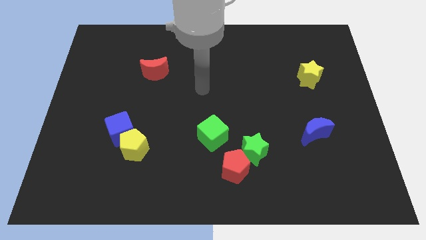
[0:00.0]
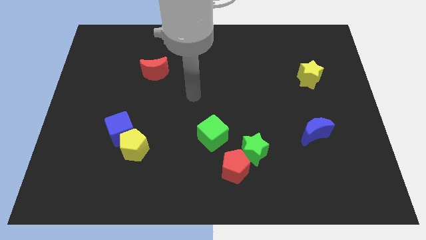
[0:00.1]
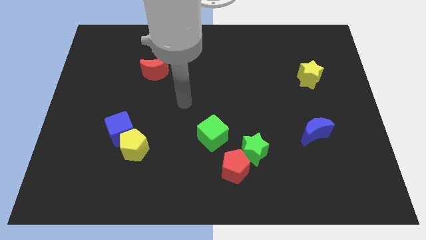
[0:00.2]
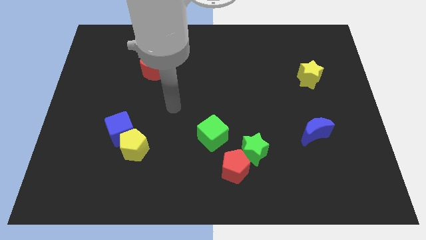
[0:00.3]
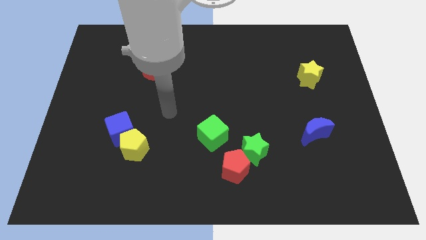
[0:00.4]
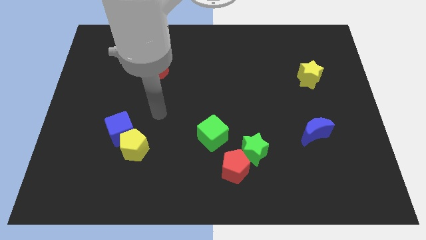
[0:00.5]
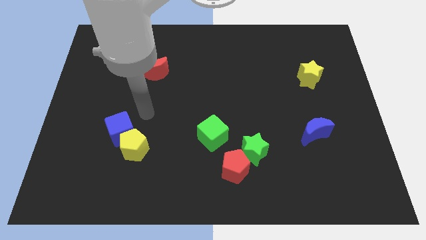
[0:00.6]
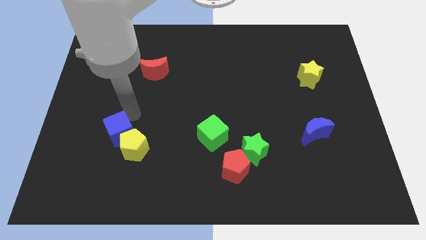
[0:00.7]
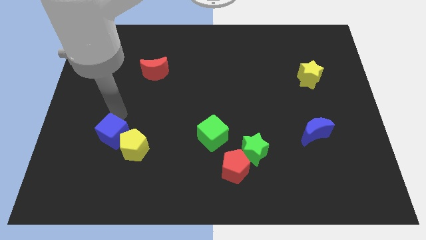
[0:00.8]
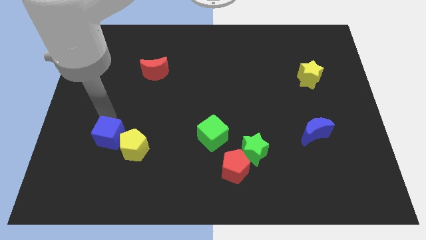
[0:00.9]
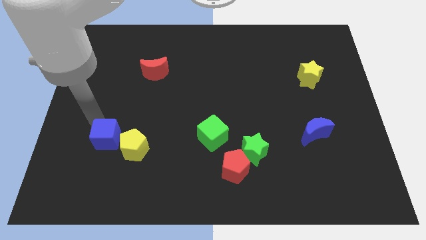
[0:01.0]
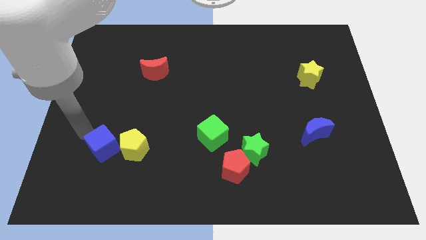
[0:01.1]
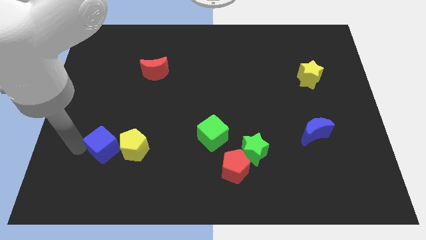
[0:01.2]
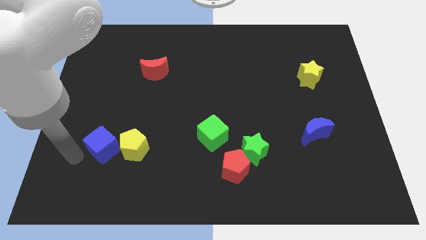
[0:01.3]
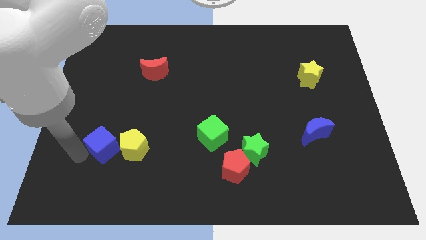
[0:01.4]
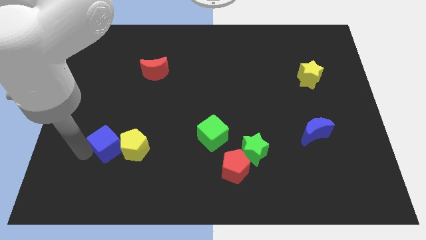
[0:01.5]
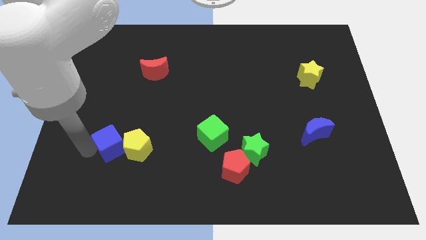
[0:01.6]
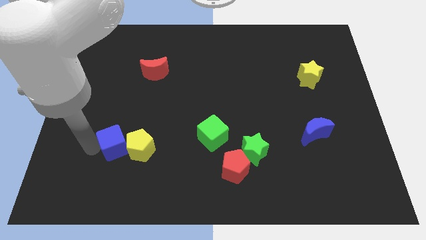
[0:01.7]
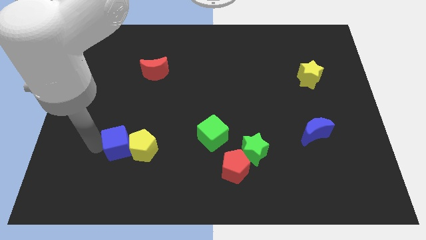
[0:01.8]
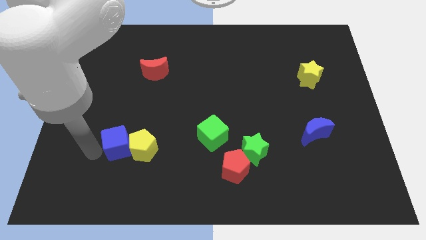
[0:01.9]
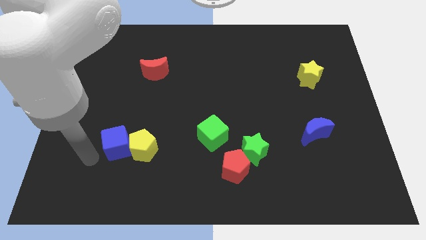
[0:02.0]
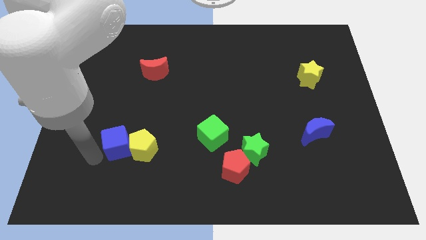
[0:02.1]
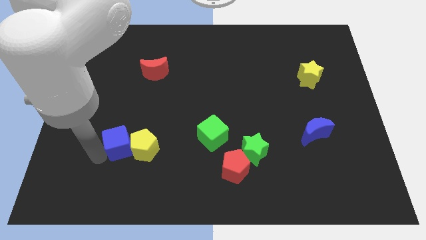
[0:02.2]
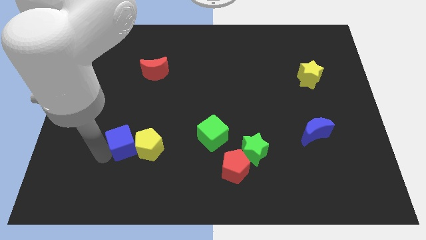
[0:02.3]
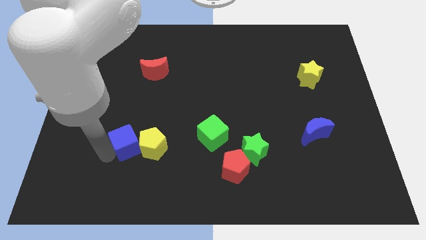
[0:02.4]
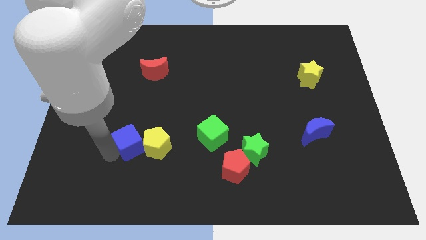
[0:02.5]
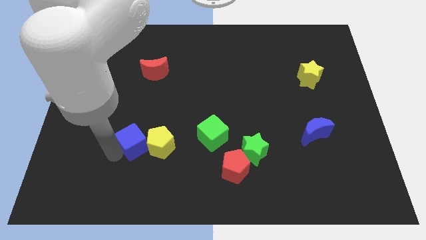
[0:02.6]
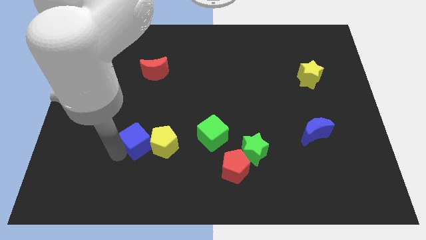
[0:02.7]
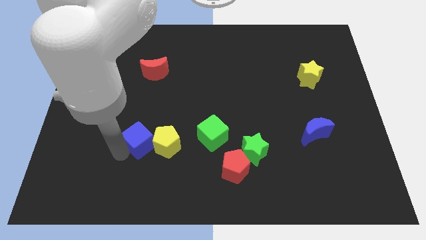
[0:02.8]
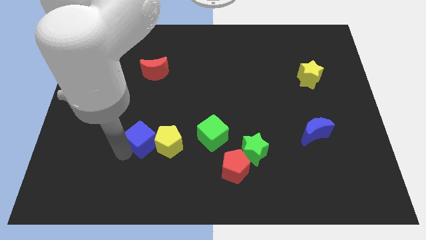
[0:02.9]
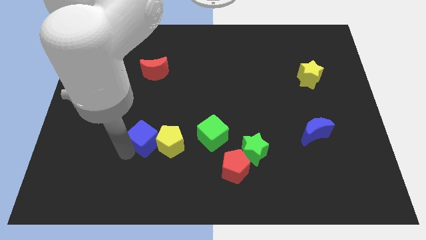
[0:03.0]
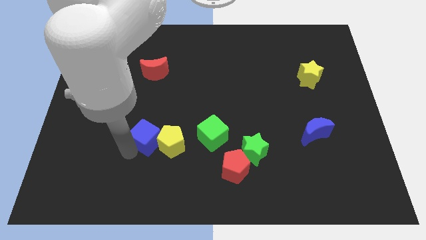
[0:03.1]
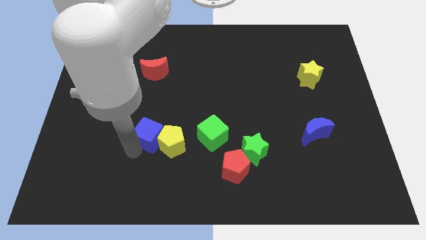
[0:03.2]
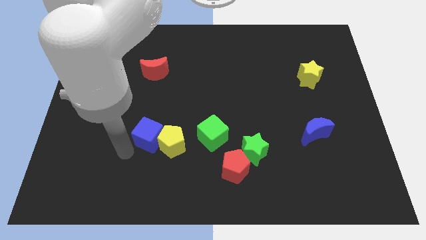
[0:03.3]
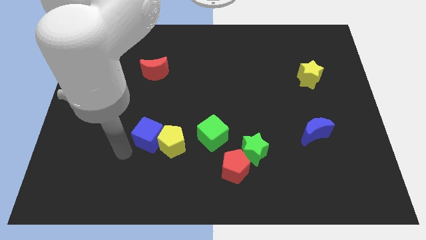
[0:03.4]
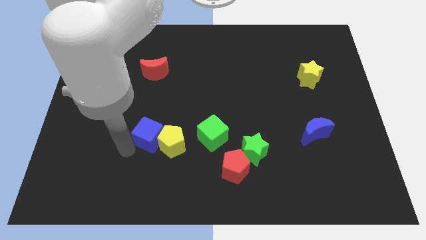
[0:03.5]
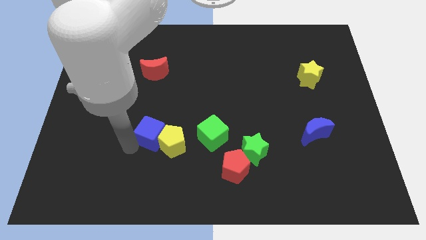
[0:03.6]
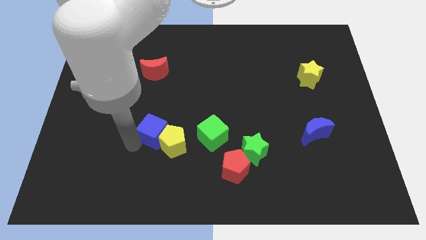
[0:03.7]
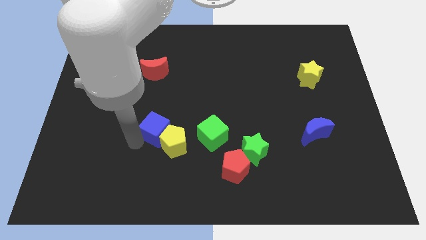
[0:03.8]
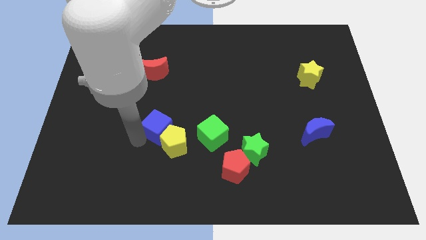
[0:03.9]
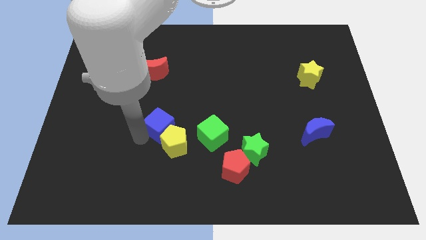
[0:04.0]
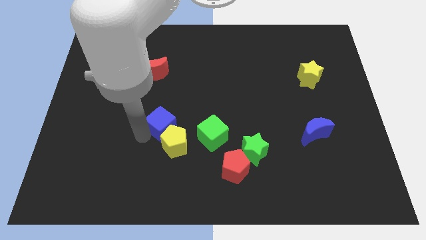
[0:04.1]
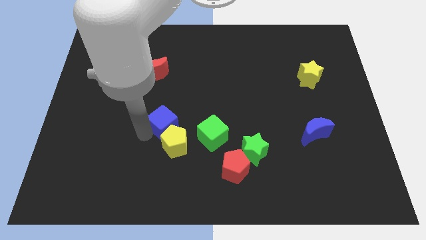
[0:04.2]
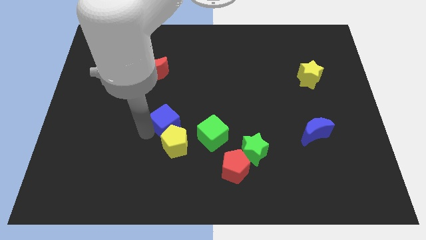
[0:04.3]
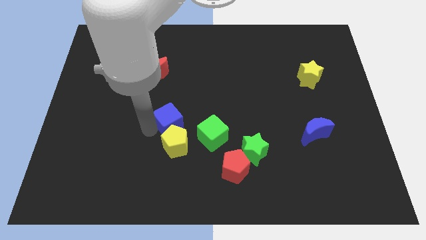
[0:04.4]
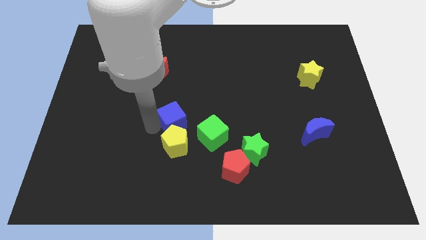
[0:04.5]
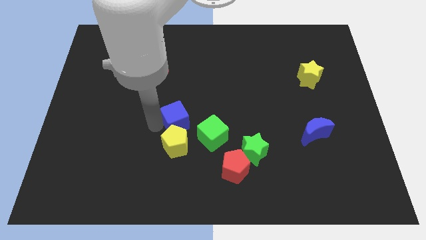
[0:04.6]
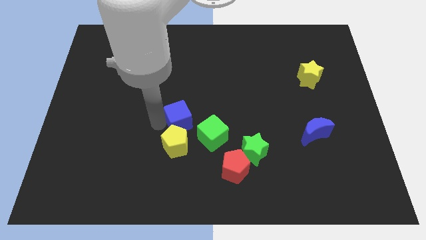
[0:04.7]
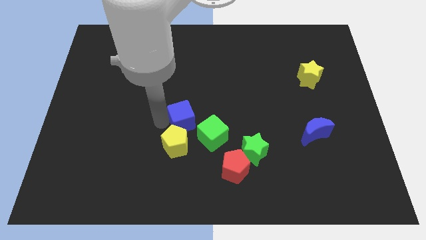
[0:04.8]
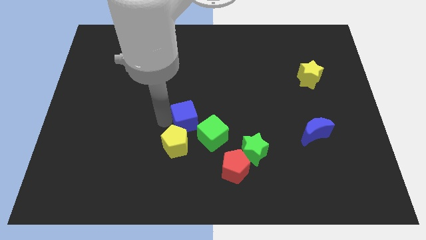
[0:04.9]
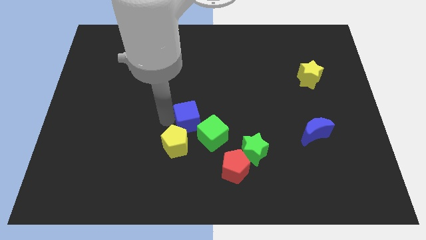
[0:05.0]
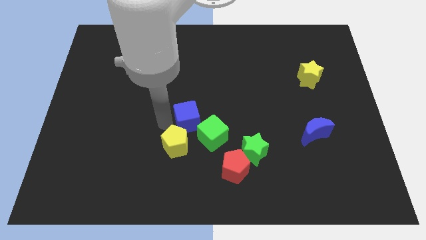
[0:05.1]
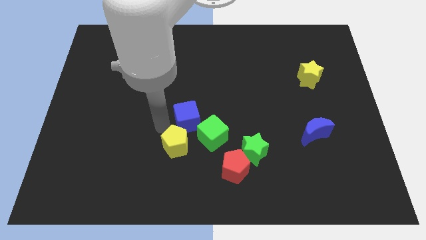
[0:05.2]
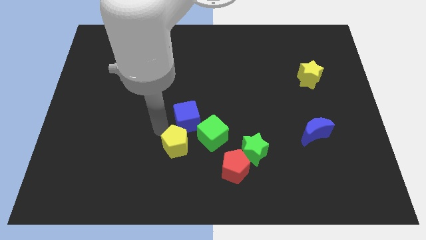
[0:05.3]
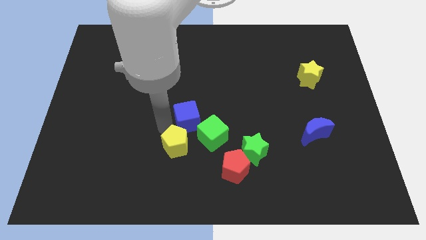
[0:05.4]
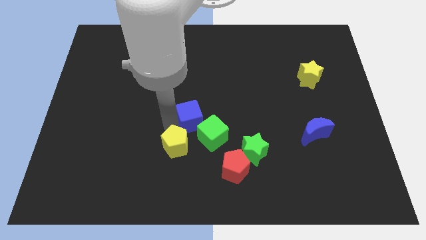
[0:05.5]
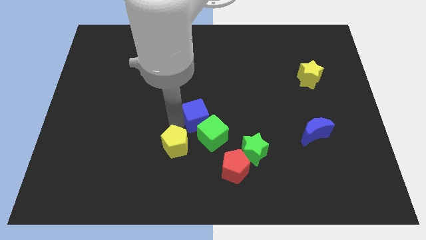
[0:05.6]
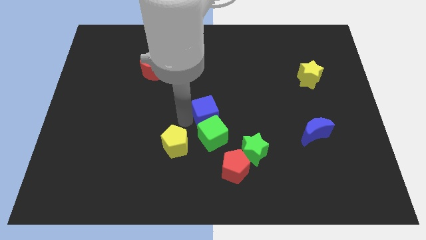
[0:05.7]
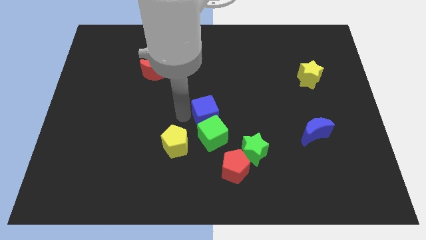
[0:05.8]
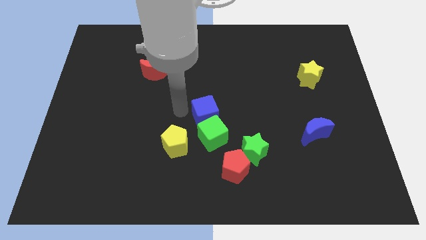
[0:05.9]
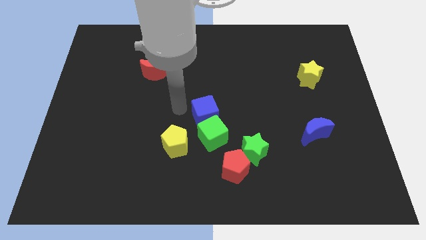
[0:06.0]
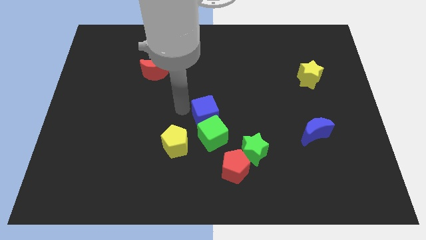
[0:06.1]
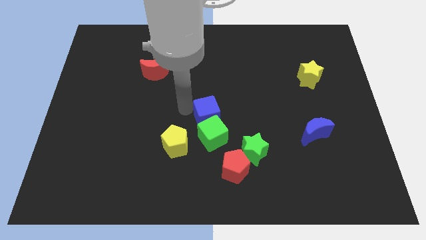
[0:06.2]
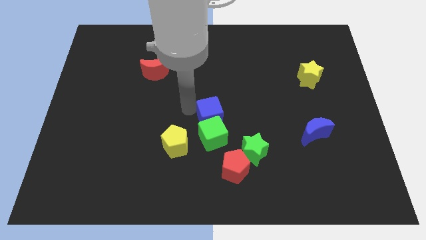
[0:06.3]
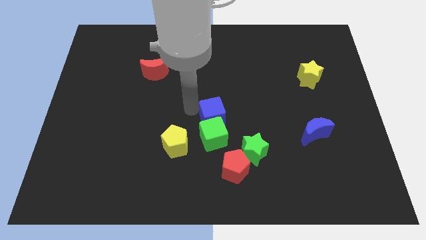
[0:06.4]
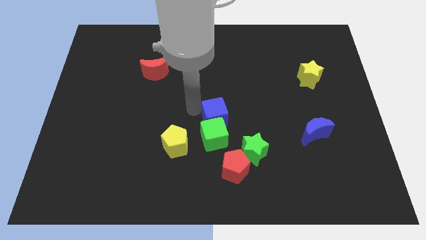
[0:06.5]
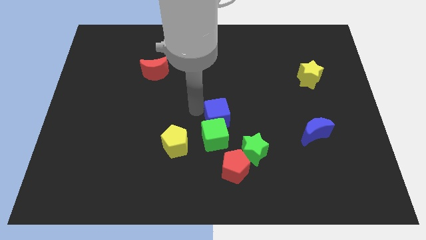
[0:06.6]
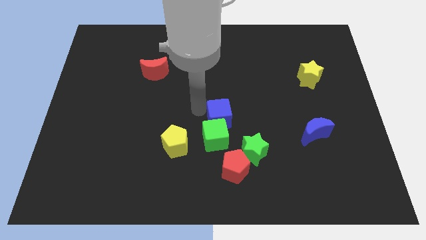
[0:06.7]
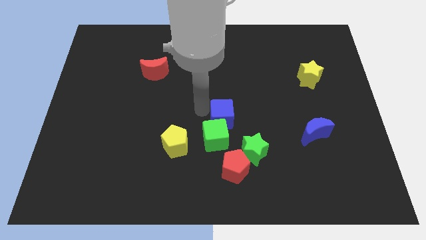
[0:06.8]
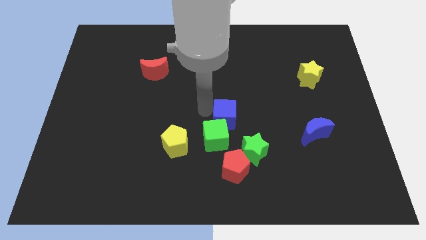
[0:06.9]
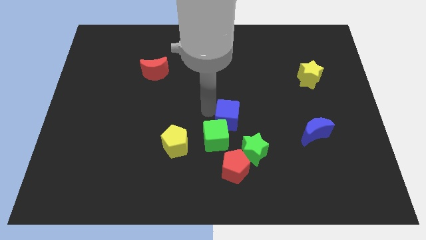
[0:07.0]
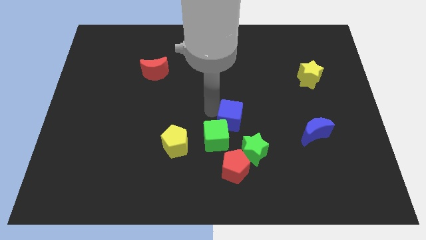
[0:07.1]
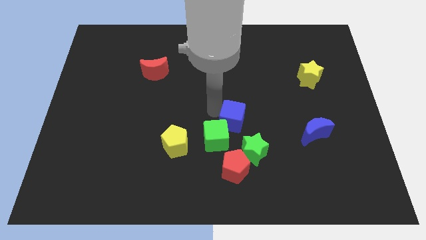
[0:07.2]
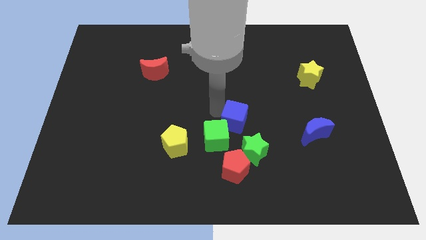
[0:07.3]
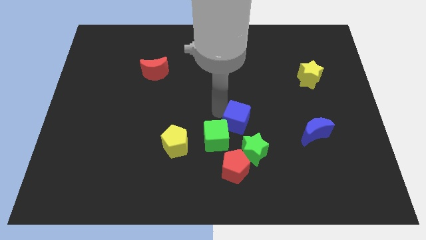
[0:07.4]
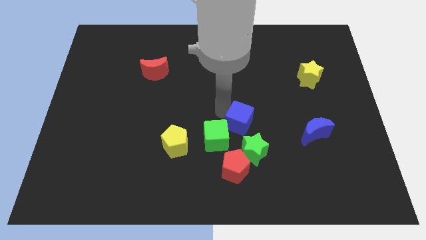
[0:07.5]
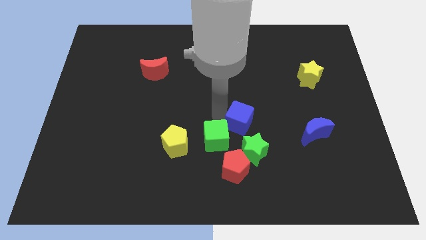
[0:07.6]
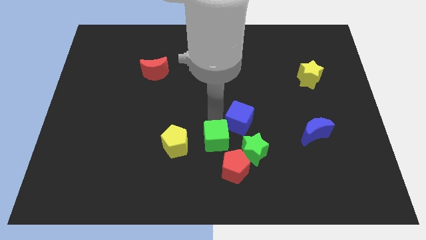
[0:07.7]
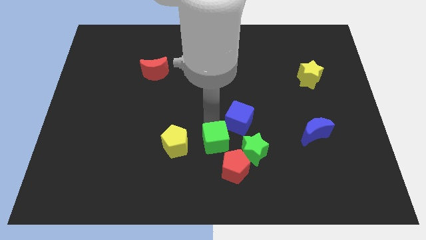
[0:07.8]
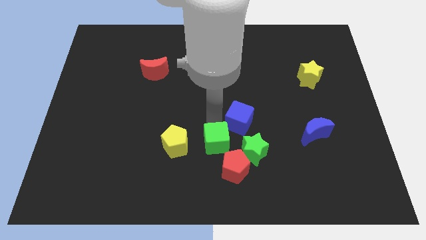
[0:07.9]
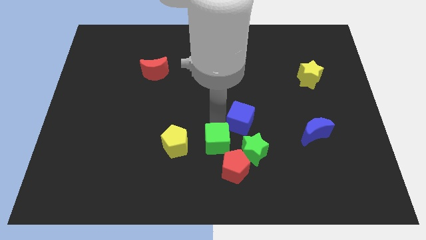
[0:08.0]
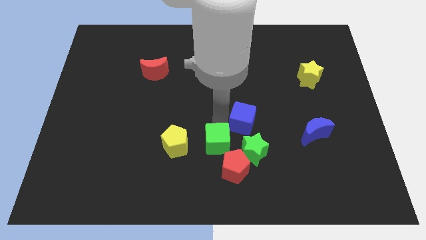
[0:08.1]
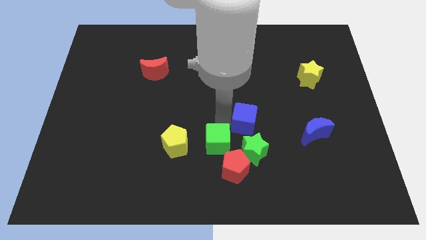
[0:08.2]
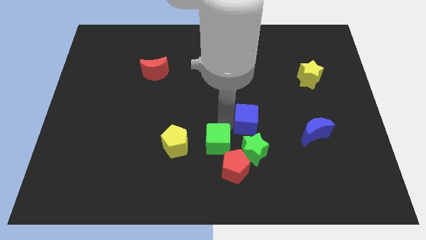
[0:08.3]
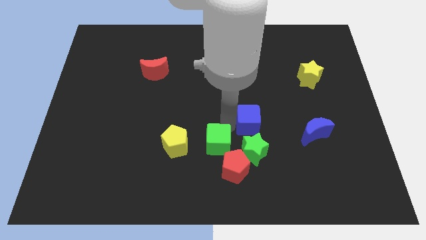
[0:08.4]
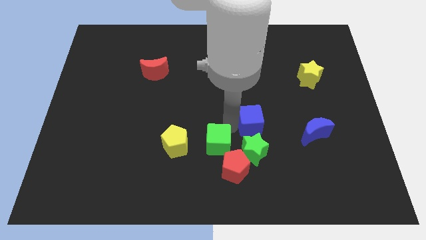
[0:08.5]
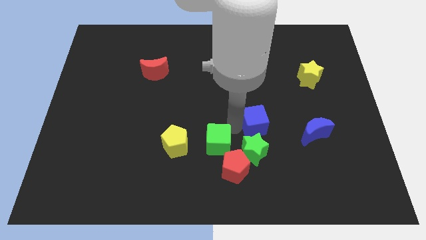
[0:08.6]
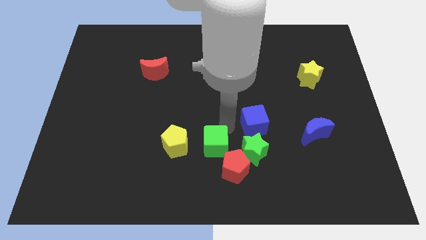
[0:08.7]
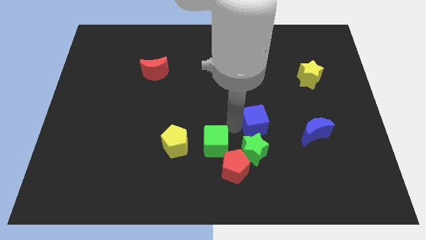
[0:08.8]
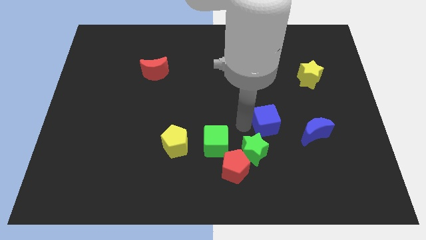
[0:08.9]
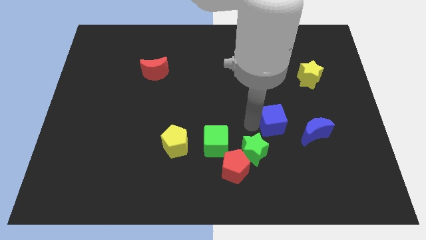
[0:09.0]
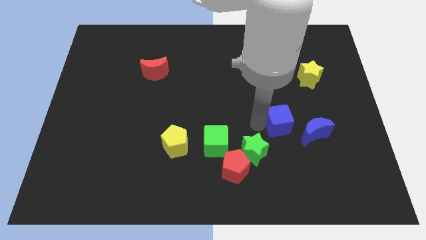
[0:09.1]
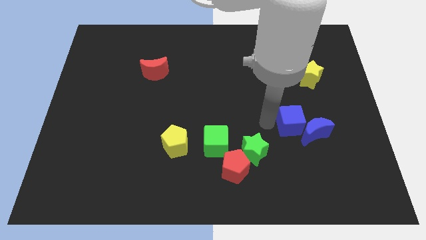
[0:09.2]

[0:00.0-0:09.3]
push the blue cube next to the blue moon
